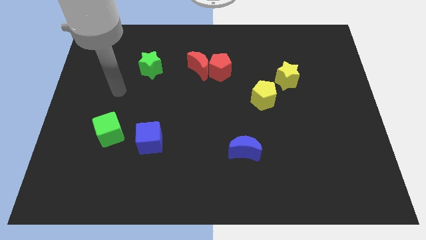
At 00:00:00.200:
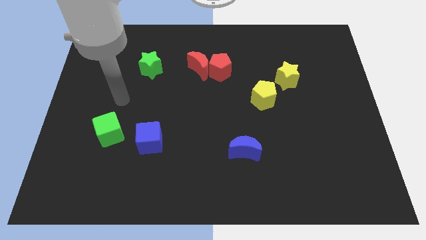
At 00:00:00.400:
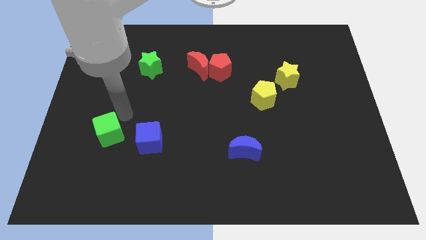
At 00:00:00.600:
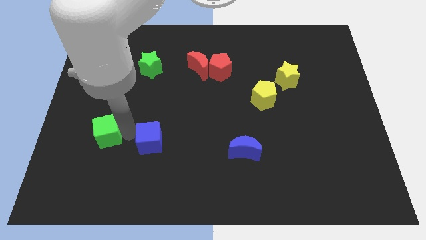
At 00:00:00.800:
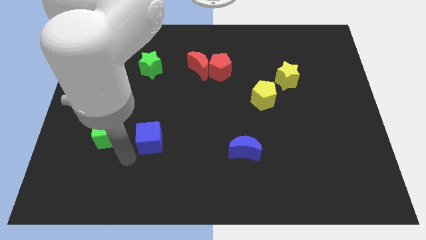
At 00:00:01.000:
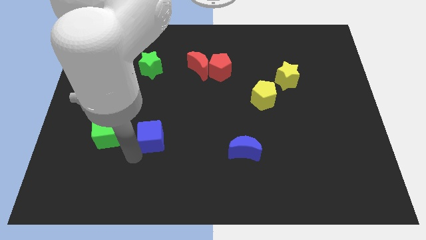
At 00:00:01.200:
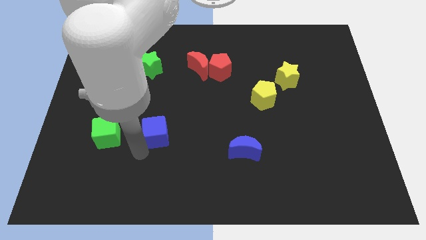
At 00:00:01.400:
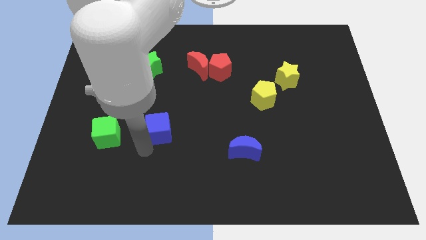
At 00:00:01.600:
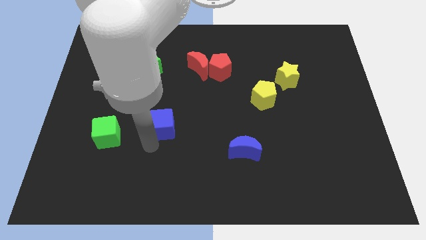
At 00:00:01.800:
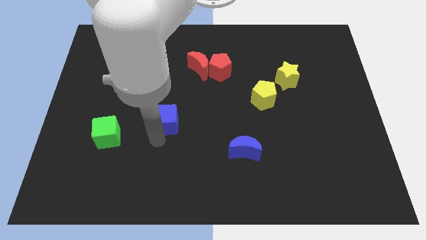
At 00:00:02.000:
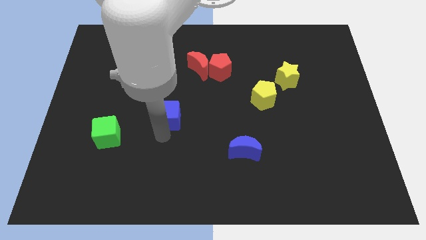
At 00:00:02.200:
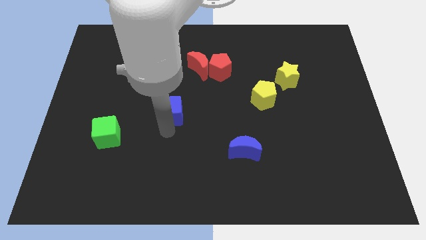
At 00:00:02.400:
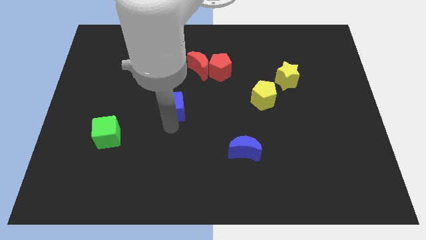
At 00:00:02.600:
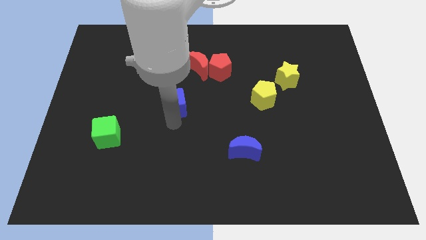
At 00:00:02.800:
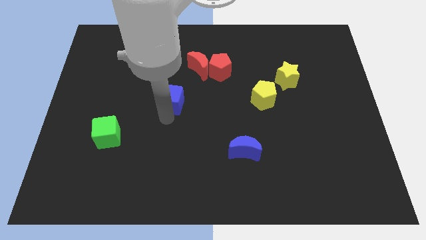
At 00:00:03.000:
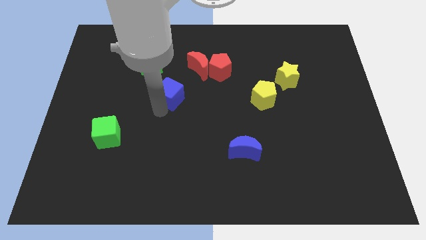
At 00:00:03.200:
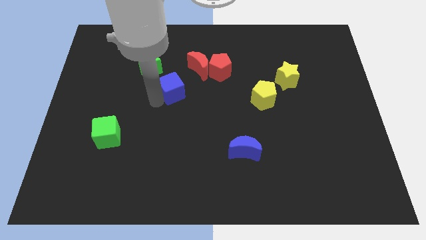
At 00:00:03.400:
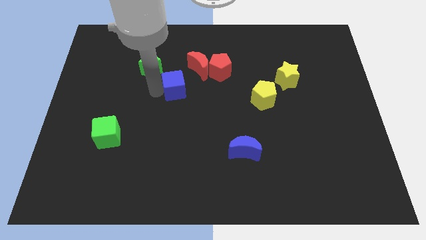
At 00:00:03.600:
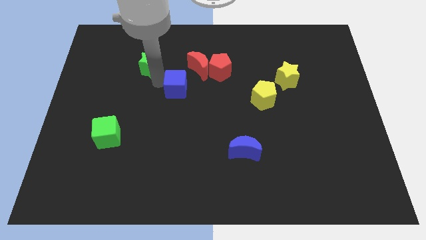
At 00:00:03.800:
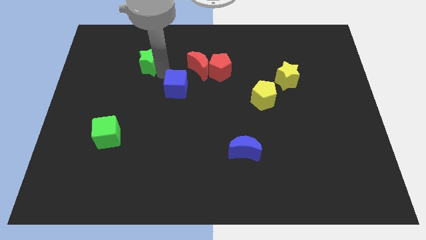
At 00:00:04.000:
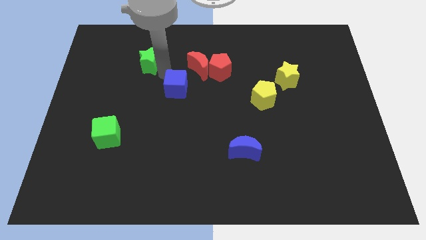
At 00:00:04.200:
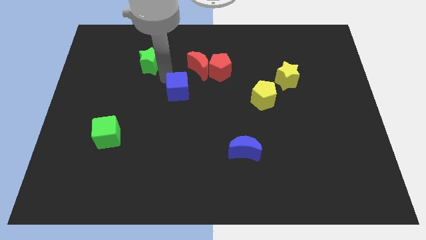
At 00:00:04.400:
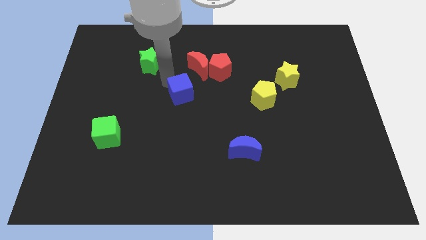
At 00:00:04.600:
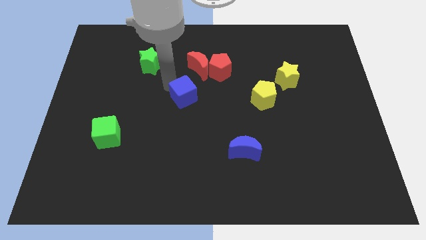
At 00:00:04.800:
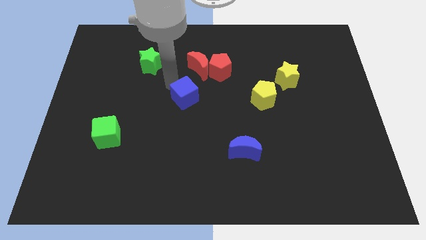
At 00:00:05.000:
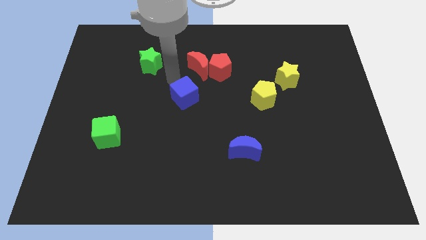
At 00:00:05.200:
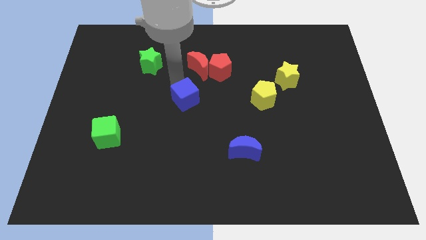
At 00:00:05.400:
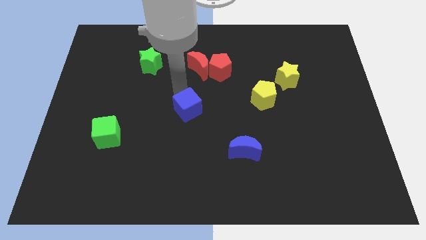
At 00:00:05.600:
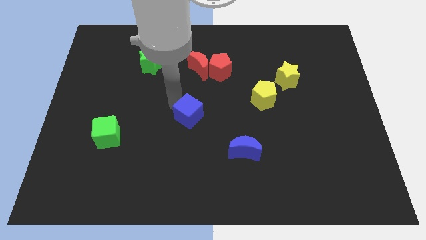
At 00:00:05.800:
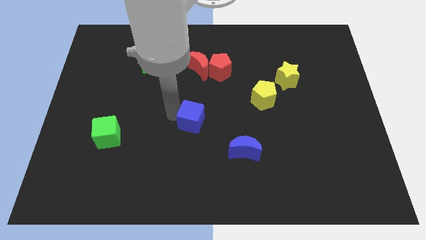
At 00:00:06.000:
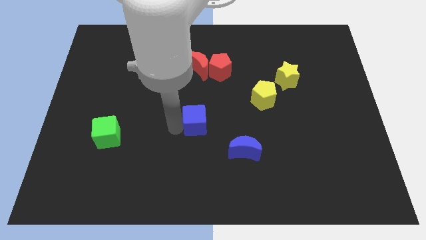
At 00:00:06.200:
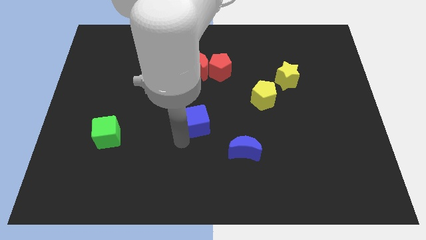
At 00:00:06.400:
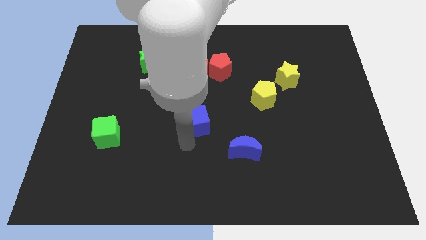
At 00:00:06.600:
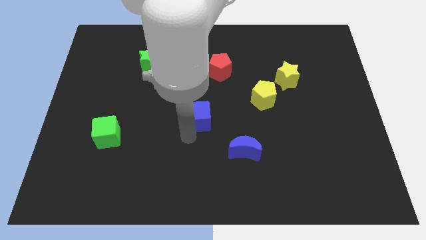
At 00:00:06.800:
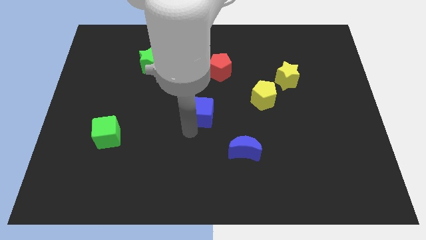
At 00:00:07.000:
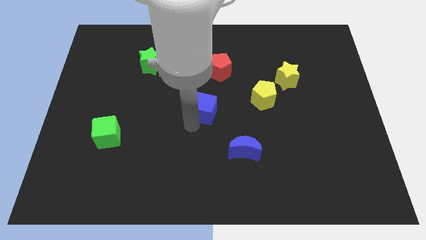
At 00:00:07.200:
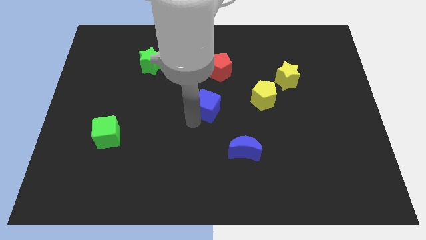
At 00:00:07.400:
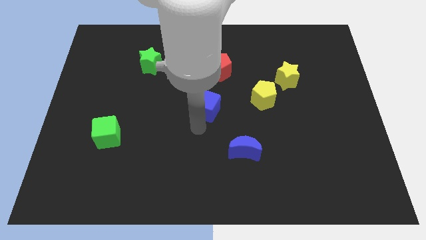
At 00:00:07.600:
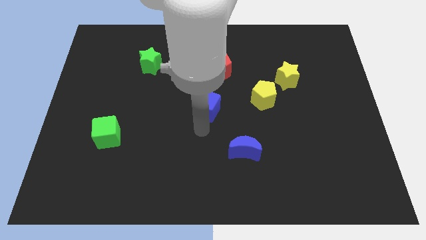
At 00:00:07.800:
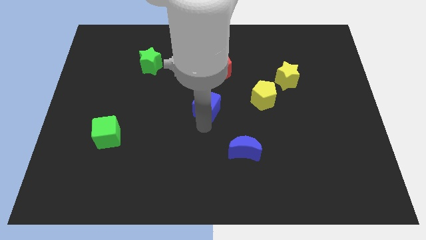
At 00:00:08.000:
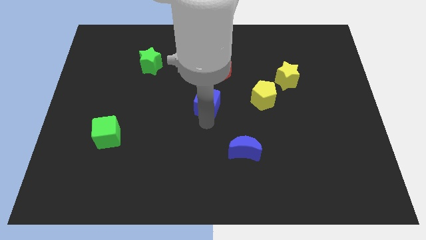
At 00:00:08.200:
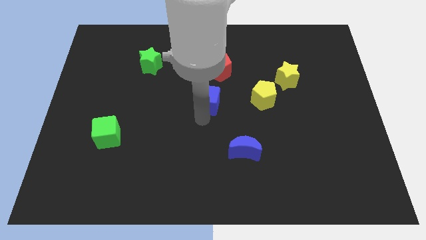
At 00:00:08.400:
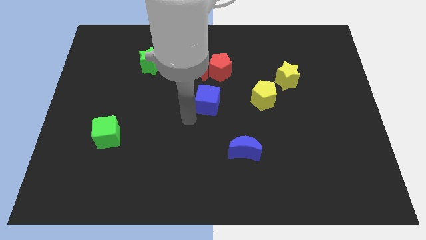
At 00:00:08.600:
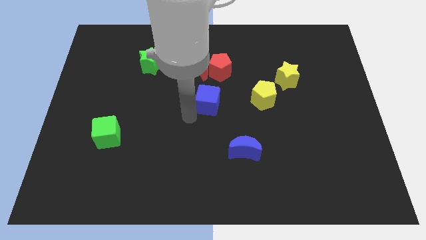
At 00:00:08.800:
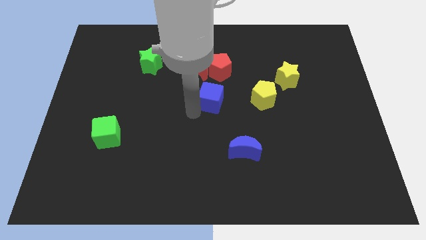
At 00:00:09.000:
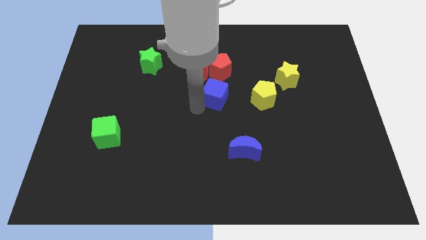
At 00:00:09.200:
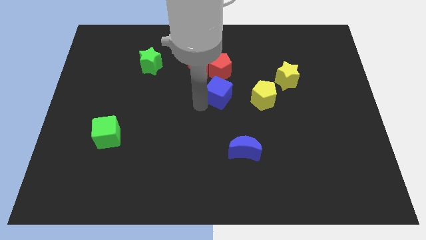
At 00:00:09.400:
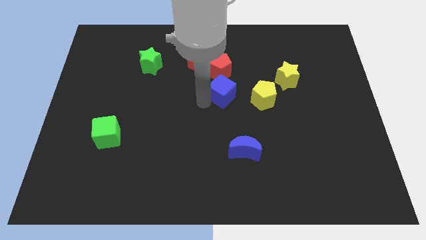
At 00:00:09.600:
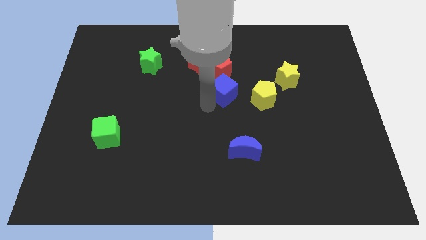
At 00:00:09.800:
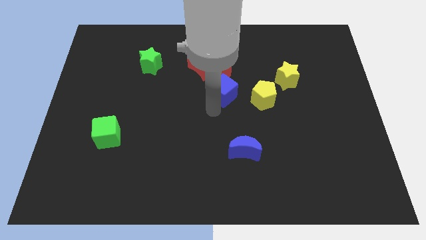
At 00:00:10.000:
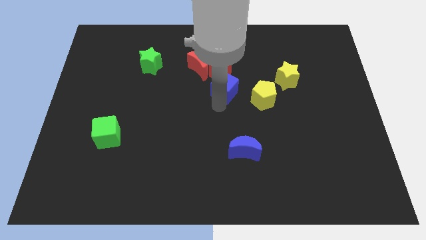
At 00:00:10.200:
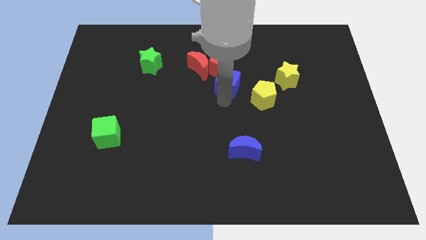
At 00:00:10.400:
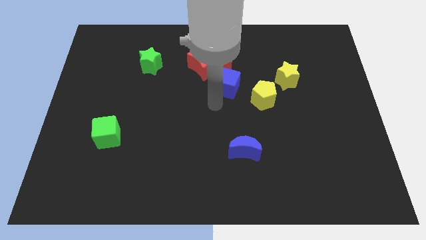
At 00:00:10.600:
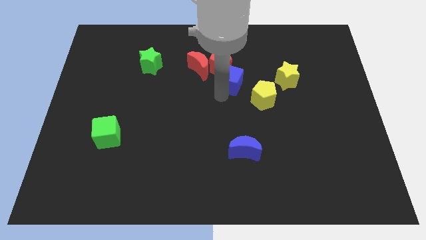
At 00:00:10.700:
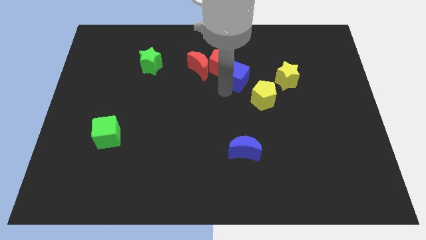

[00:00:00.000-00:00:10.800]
put the blue cube to the right side of the red moon

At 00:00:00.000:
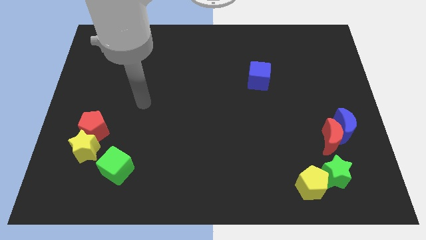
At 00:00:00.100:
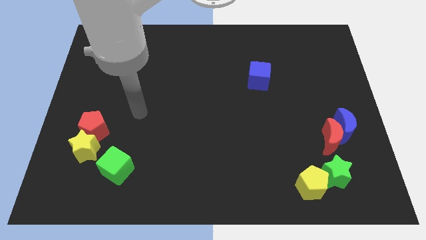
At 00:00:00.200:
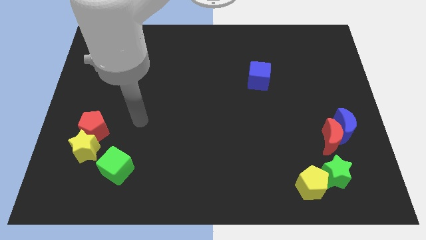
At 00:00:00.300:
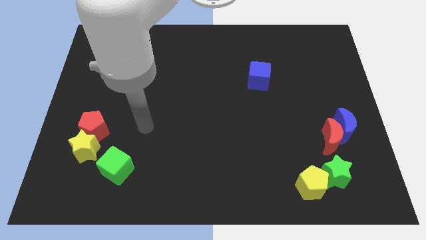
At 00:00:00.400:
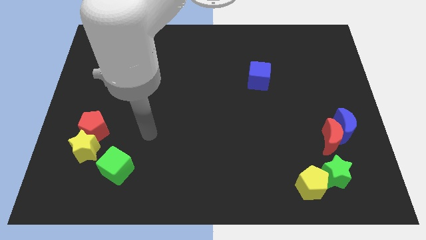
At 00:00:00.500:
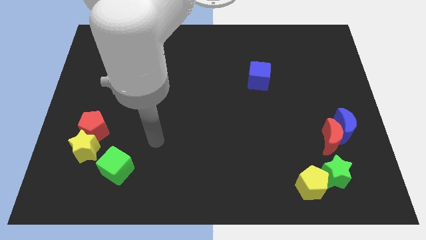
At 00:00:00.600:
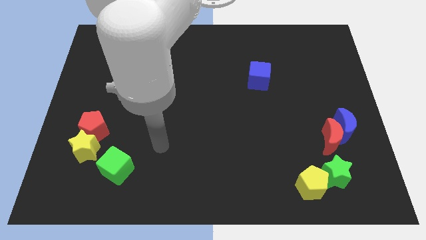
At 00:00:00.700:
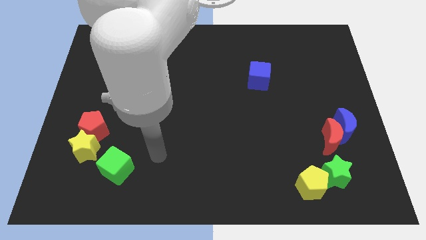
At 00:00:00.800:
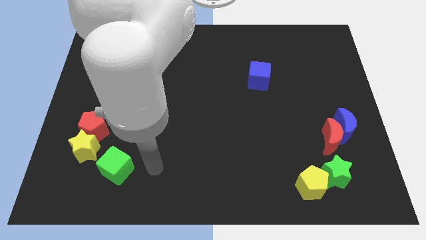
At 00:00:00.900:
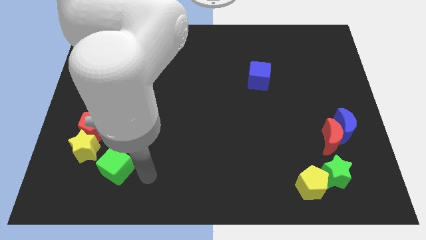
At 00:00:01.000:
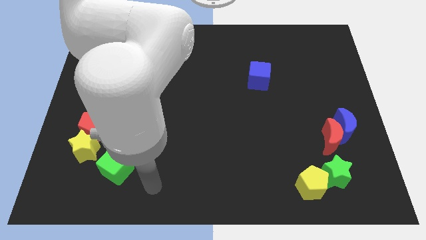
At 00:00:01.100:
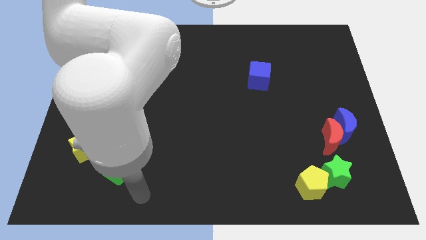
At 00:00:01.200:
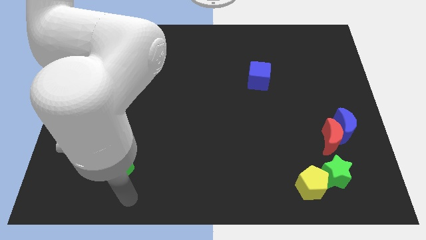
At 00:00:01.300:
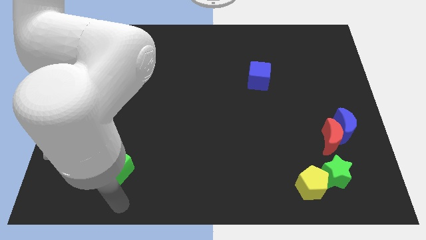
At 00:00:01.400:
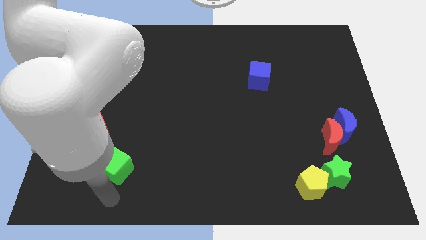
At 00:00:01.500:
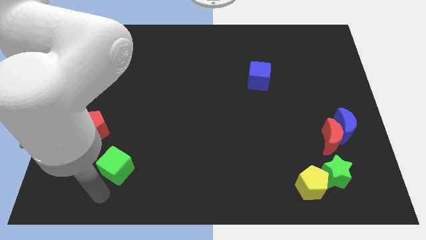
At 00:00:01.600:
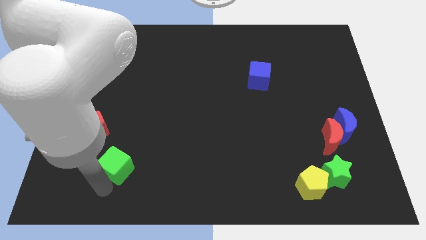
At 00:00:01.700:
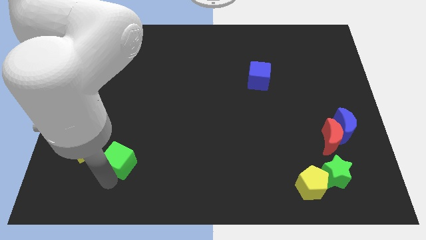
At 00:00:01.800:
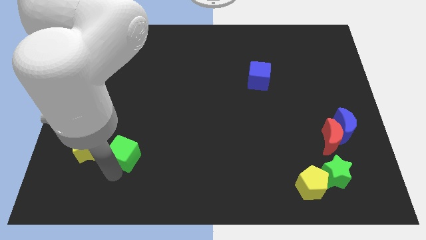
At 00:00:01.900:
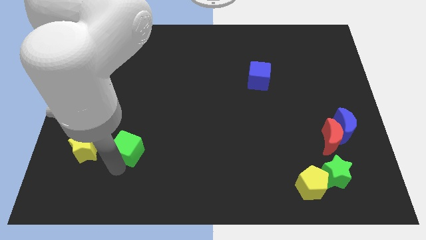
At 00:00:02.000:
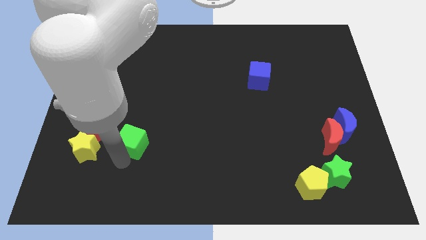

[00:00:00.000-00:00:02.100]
push the green cube just right of the red pentagon

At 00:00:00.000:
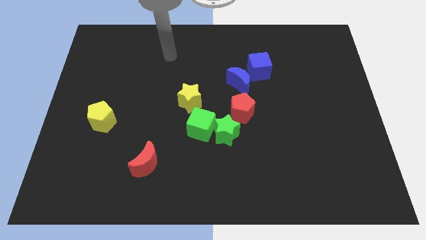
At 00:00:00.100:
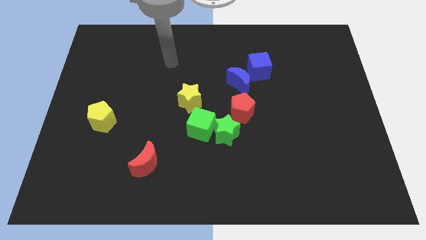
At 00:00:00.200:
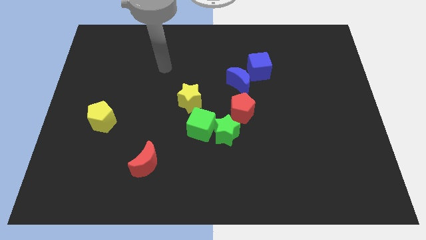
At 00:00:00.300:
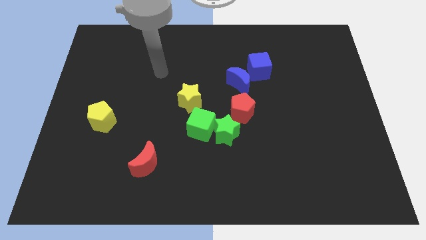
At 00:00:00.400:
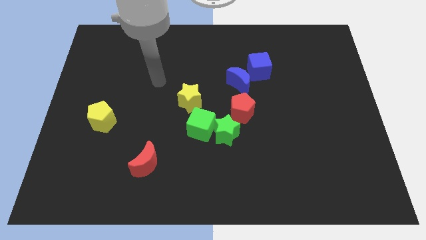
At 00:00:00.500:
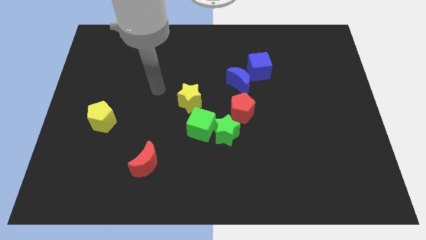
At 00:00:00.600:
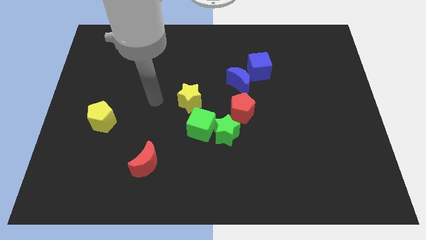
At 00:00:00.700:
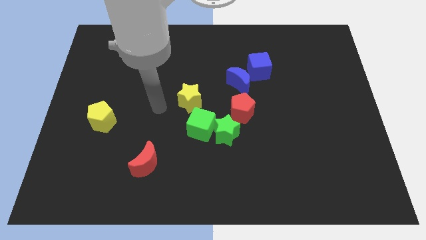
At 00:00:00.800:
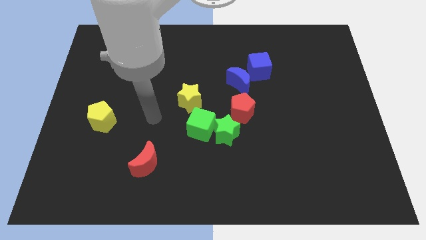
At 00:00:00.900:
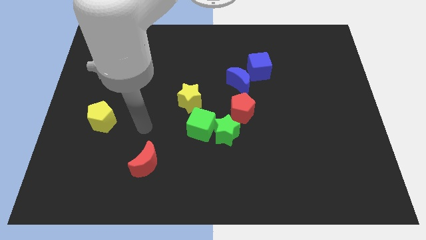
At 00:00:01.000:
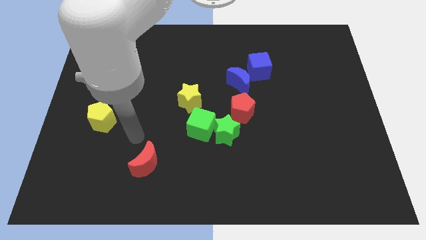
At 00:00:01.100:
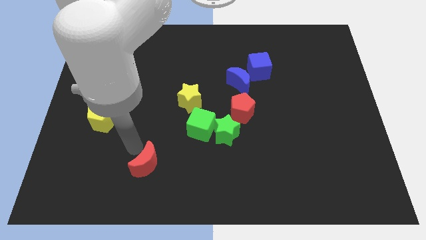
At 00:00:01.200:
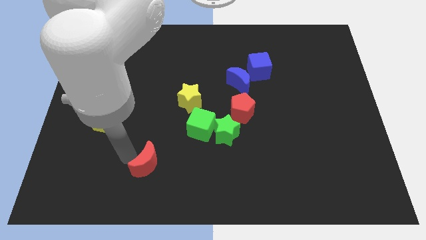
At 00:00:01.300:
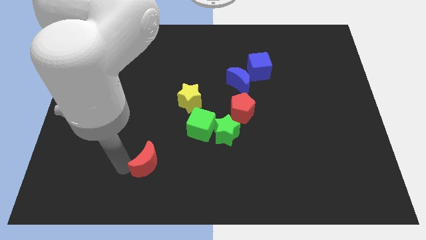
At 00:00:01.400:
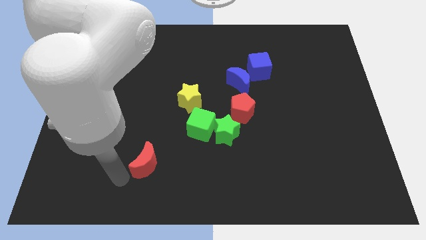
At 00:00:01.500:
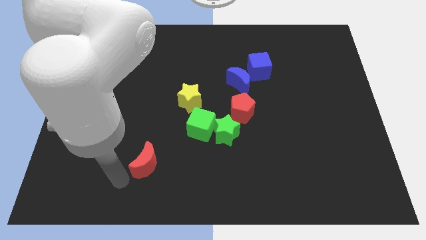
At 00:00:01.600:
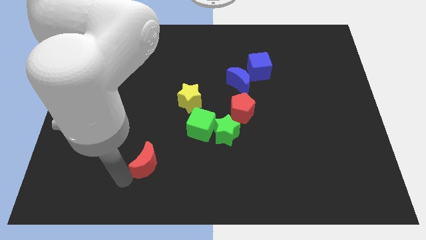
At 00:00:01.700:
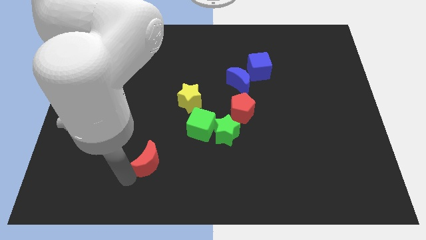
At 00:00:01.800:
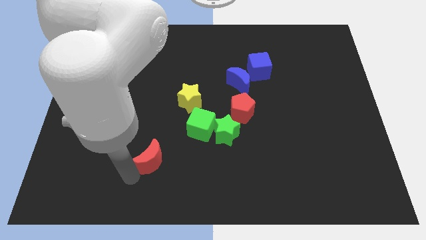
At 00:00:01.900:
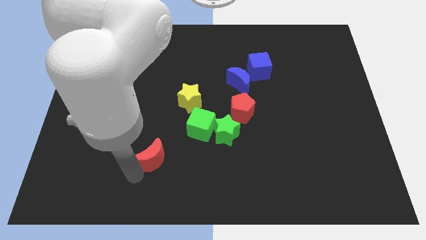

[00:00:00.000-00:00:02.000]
move the red moon to the bottom left side of the green cube
